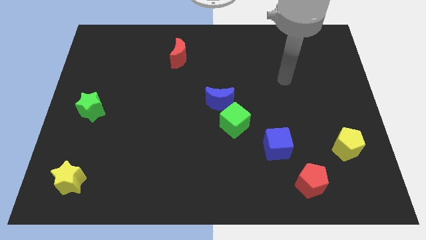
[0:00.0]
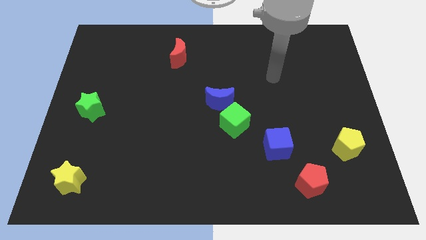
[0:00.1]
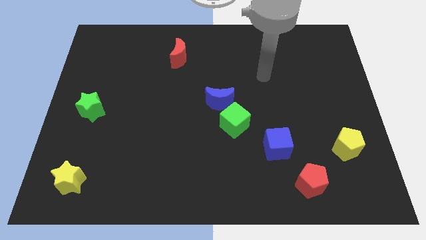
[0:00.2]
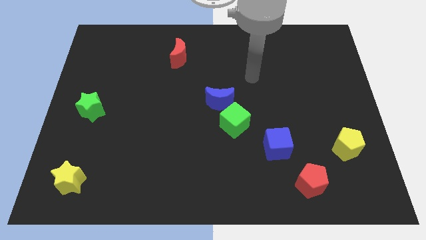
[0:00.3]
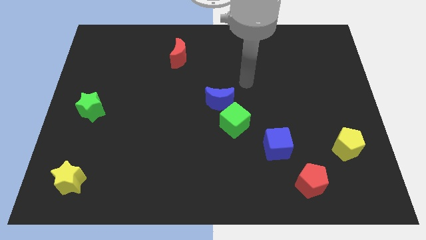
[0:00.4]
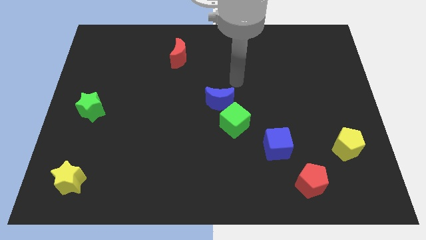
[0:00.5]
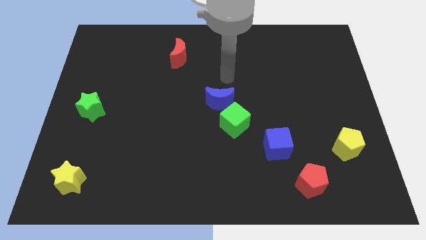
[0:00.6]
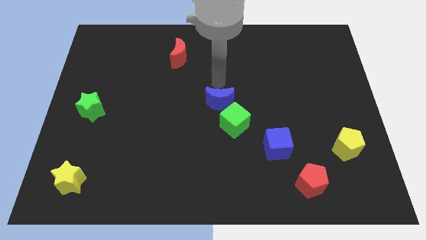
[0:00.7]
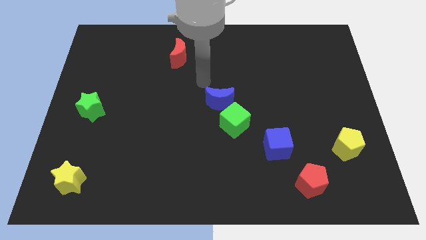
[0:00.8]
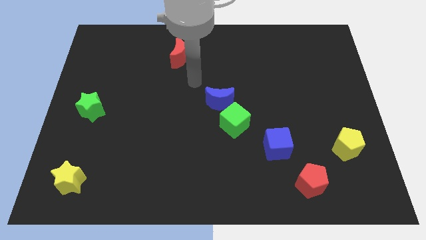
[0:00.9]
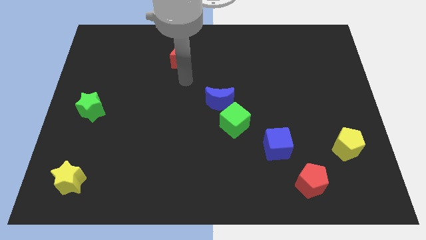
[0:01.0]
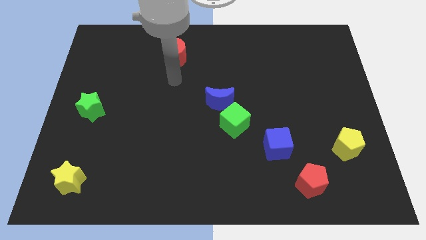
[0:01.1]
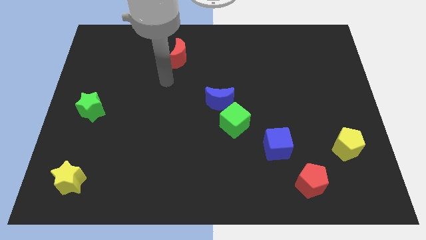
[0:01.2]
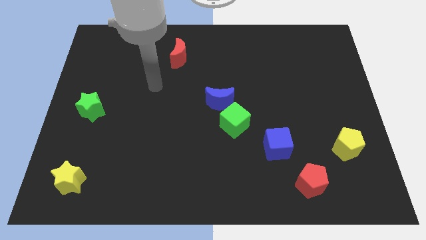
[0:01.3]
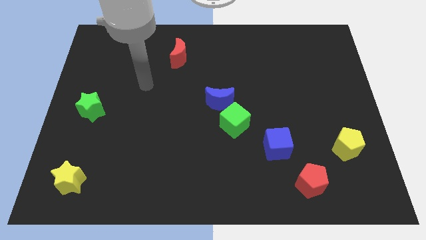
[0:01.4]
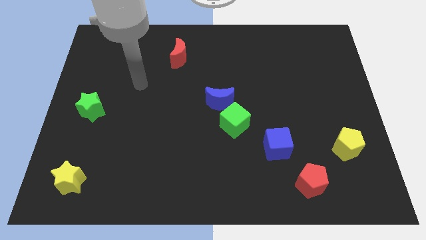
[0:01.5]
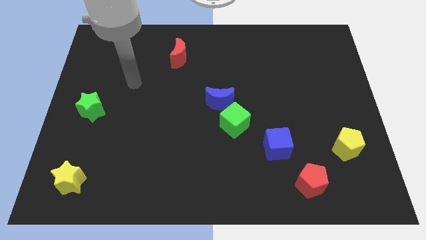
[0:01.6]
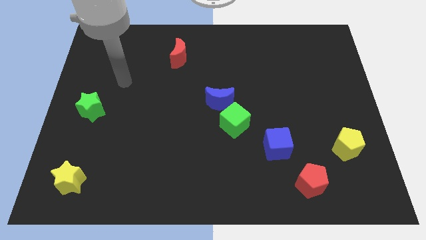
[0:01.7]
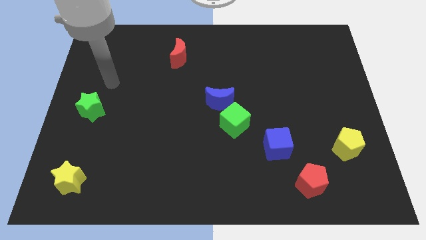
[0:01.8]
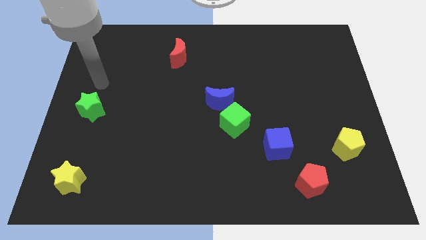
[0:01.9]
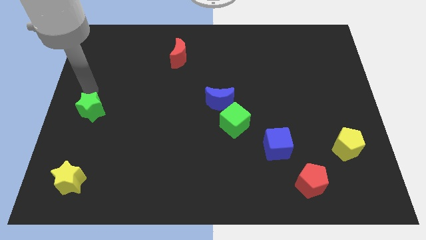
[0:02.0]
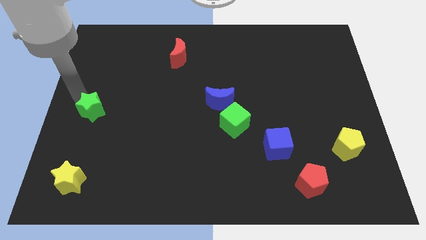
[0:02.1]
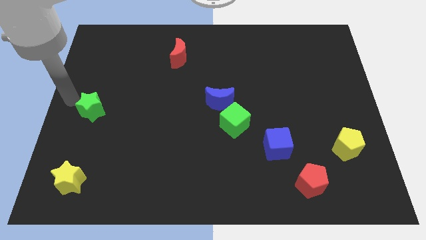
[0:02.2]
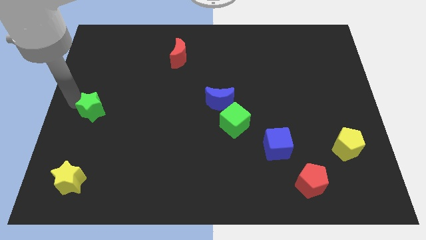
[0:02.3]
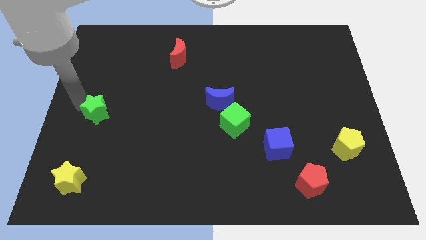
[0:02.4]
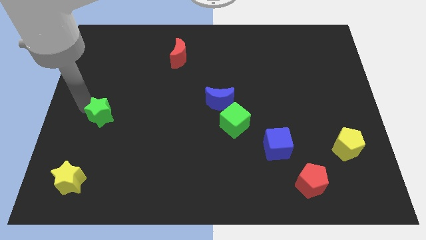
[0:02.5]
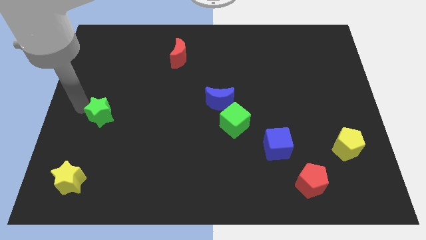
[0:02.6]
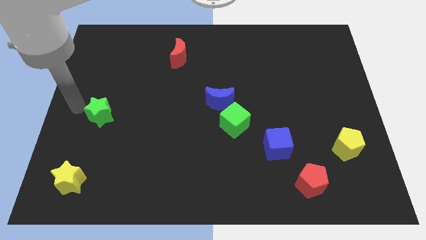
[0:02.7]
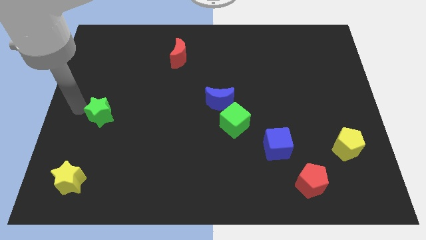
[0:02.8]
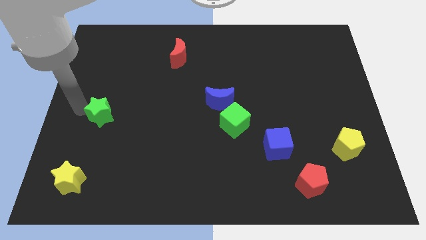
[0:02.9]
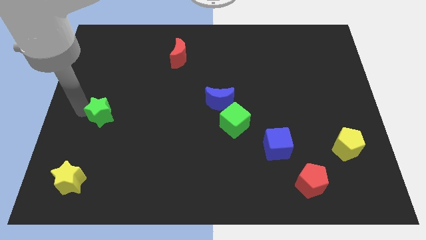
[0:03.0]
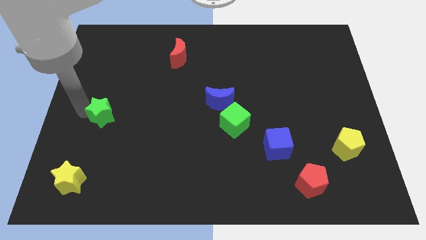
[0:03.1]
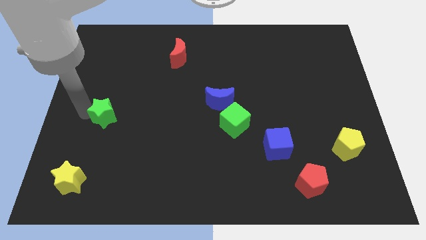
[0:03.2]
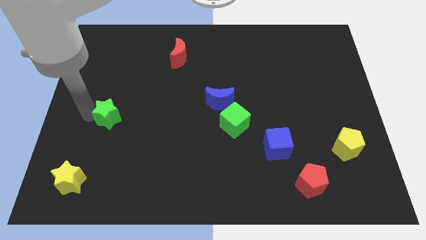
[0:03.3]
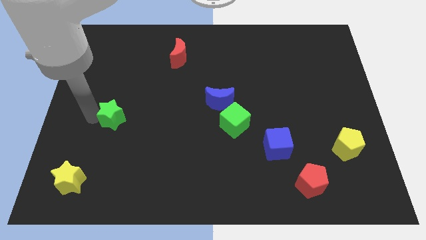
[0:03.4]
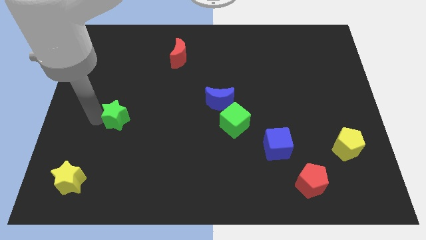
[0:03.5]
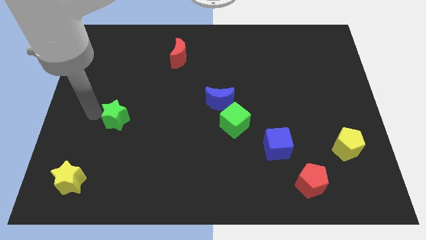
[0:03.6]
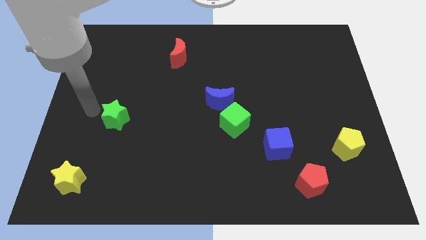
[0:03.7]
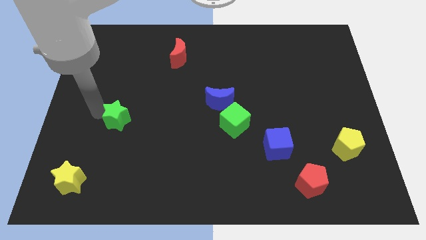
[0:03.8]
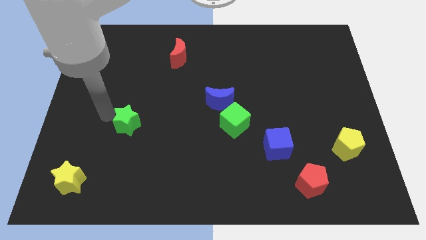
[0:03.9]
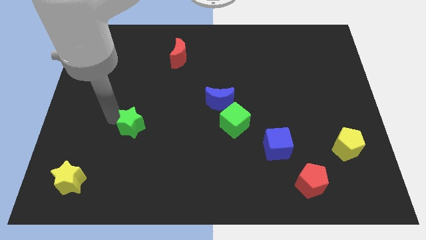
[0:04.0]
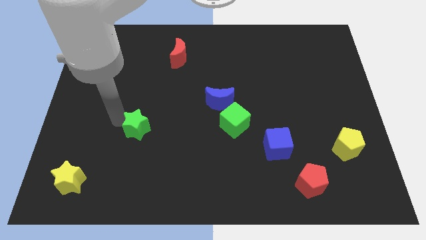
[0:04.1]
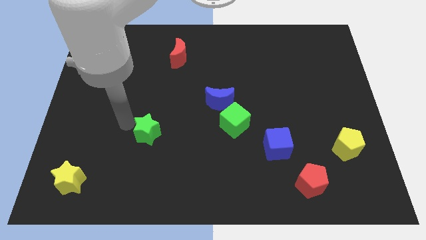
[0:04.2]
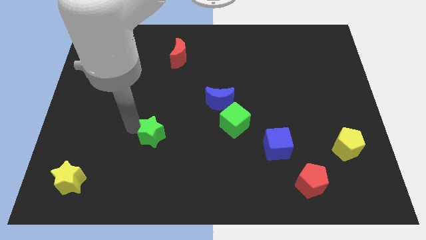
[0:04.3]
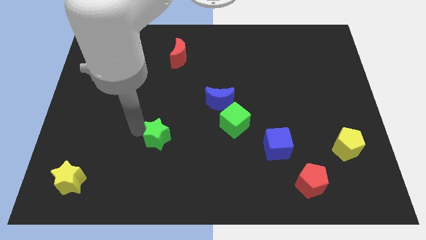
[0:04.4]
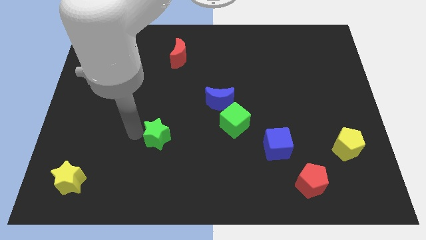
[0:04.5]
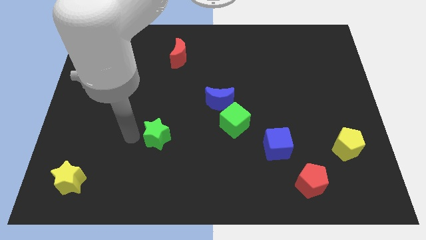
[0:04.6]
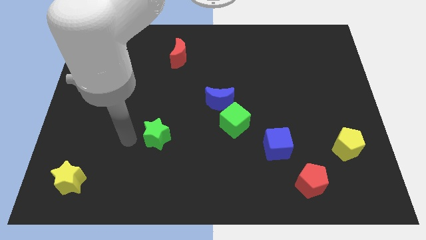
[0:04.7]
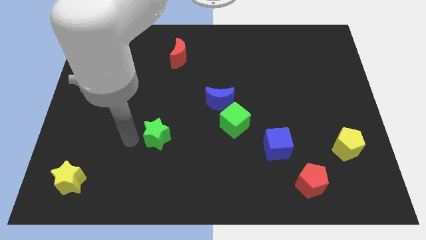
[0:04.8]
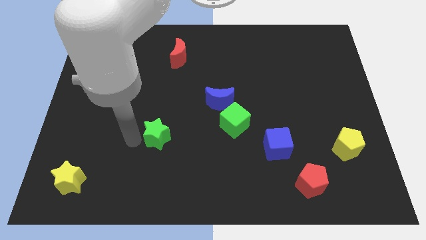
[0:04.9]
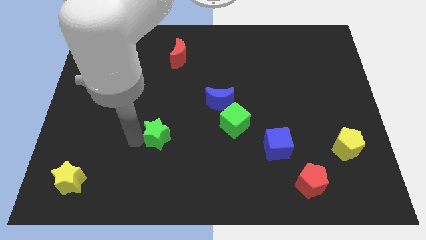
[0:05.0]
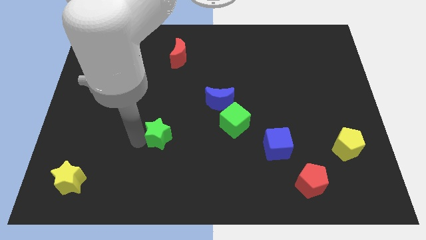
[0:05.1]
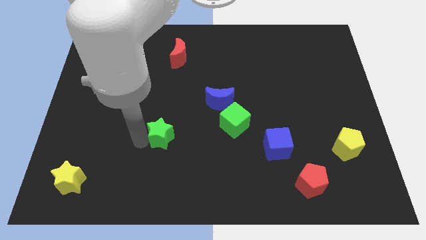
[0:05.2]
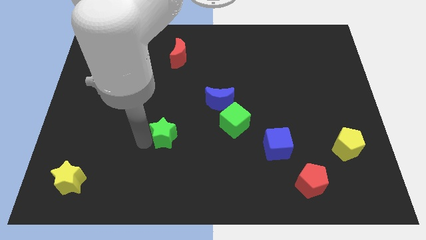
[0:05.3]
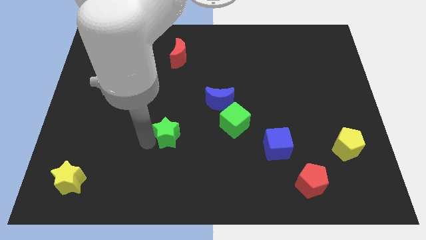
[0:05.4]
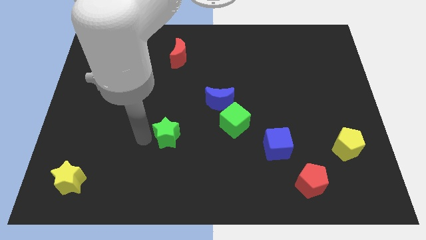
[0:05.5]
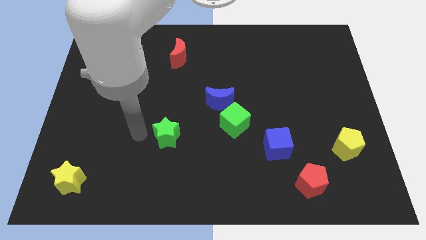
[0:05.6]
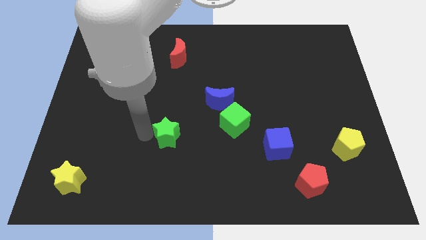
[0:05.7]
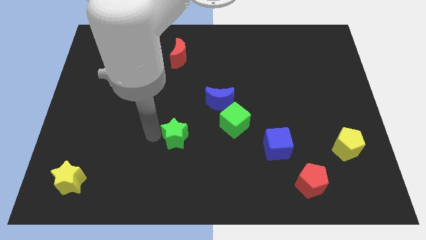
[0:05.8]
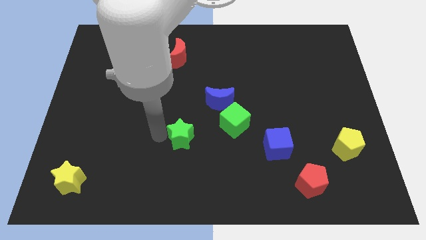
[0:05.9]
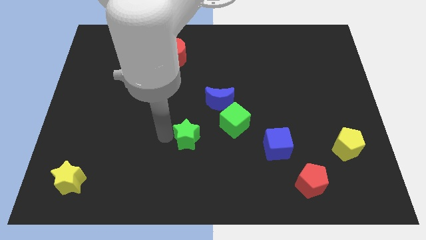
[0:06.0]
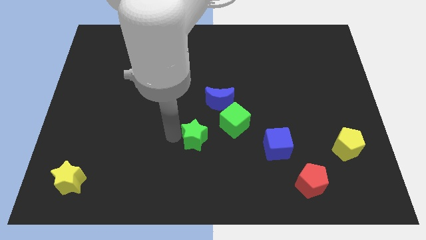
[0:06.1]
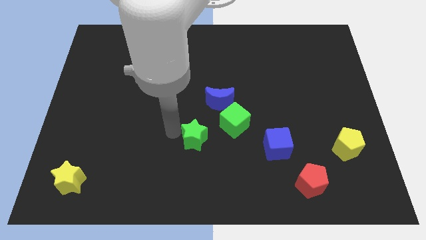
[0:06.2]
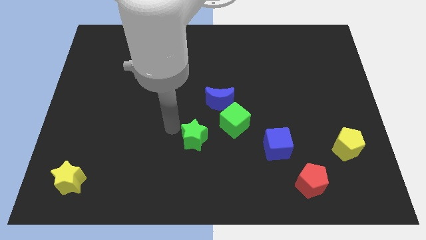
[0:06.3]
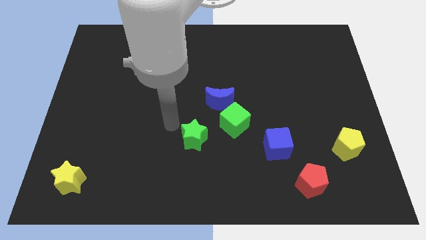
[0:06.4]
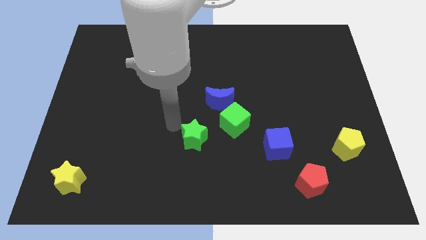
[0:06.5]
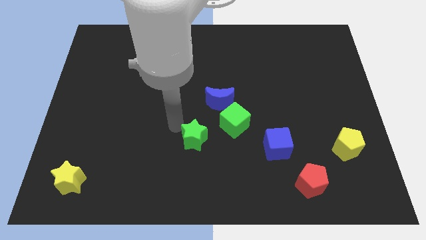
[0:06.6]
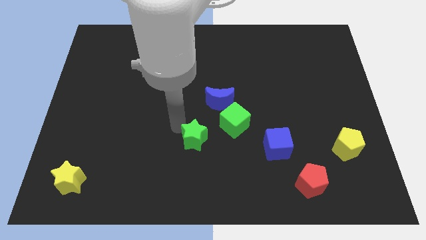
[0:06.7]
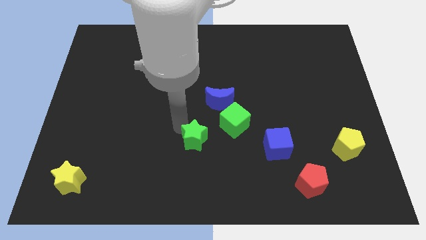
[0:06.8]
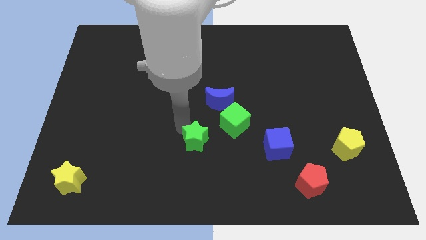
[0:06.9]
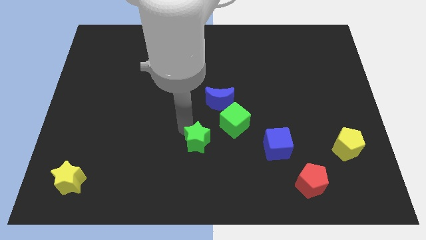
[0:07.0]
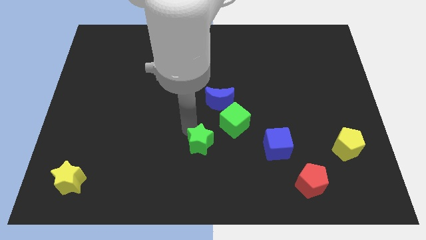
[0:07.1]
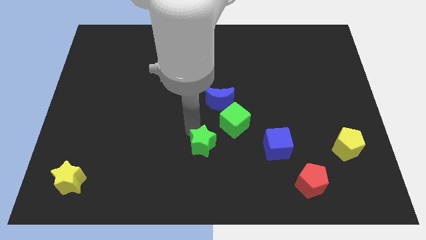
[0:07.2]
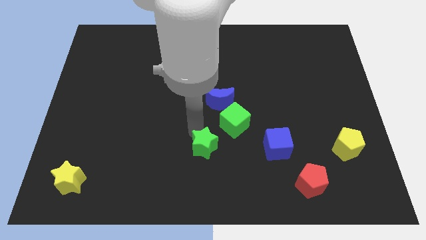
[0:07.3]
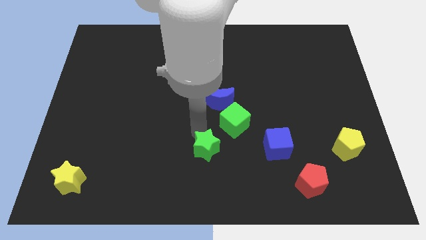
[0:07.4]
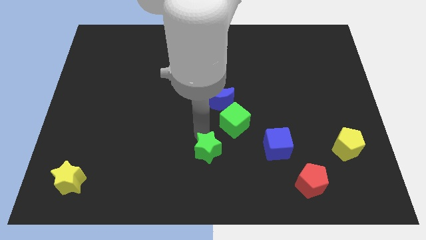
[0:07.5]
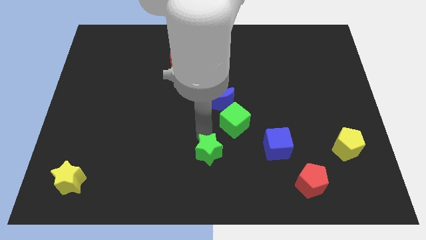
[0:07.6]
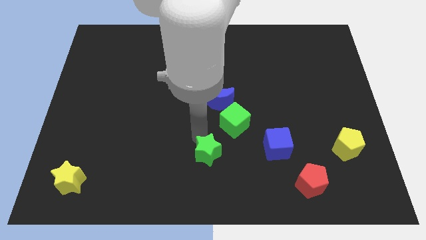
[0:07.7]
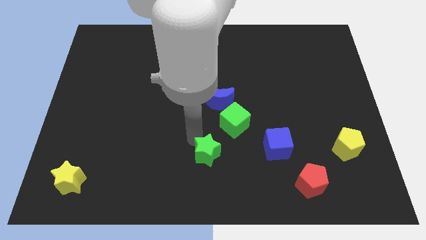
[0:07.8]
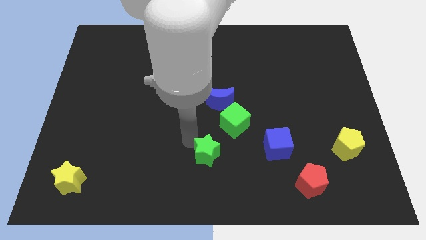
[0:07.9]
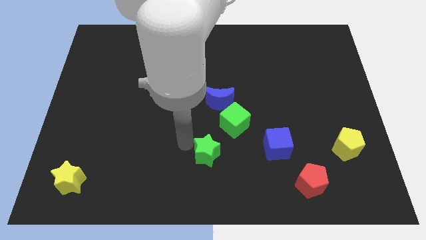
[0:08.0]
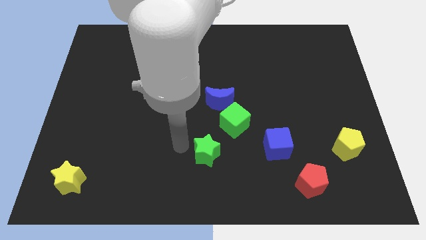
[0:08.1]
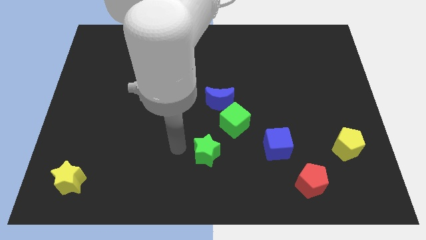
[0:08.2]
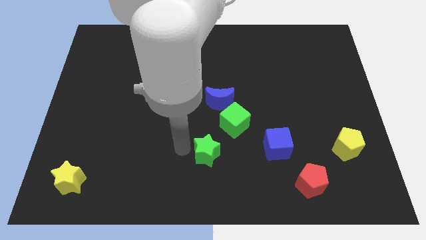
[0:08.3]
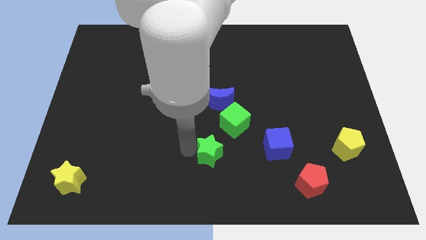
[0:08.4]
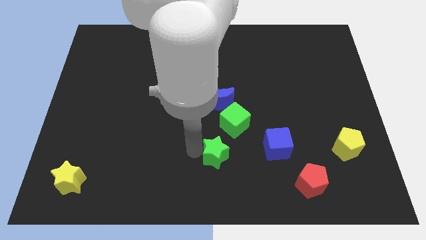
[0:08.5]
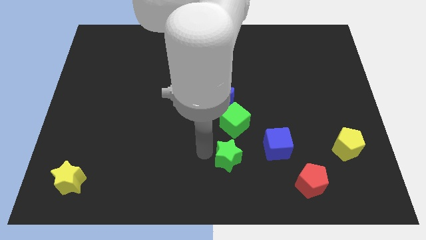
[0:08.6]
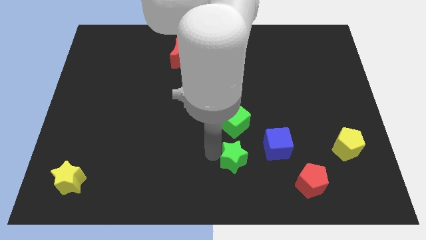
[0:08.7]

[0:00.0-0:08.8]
move the green star to the bottom left side of the blue cube
